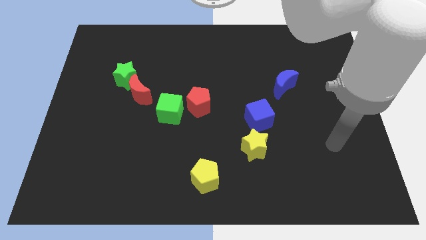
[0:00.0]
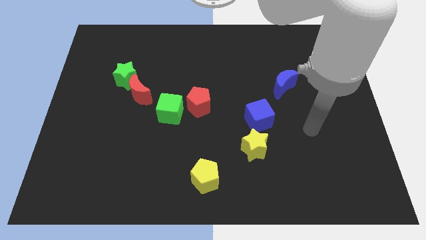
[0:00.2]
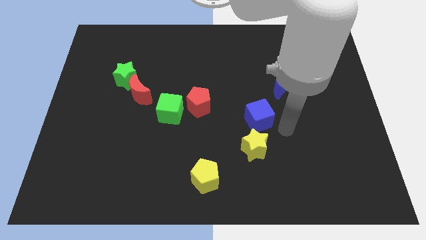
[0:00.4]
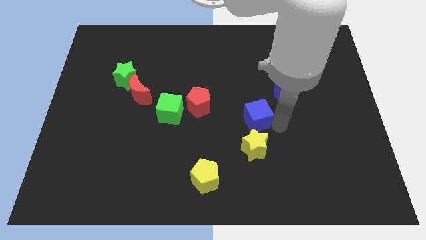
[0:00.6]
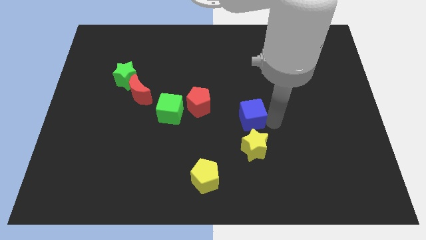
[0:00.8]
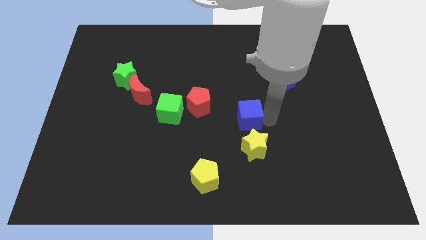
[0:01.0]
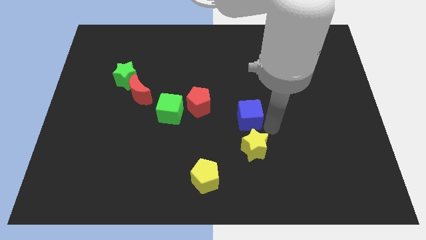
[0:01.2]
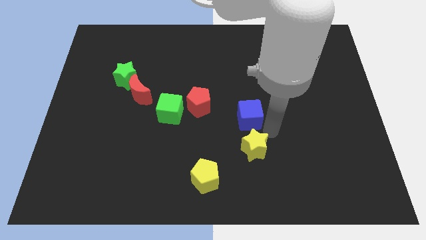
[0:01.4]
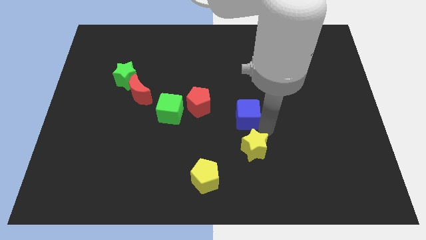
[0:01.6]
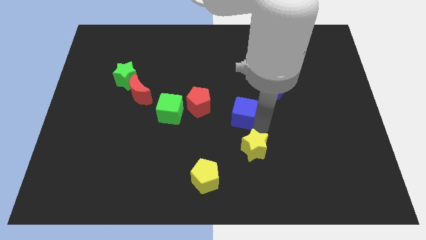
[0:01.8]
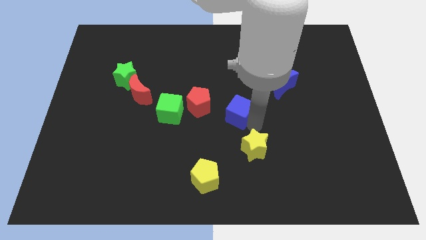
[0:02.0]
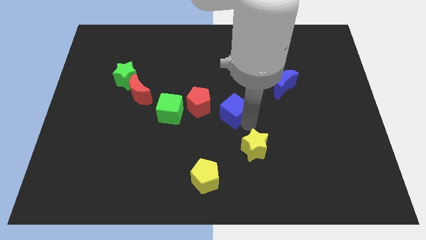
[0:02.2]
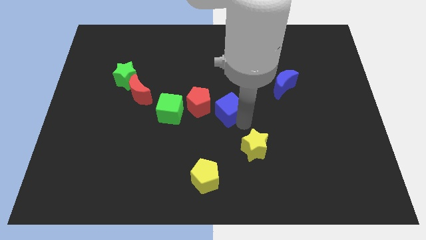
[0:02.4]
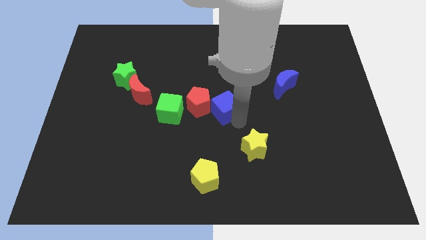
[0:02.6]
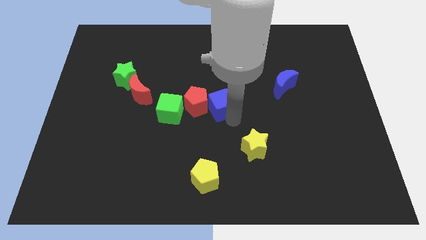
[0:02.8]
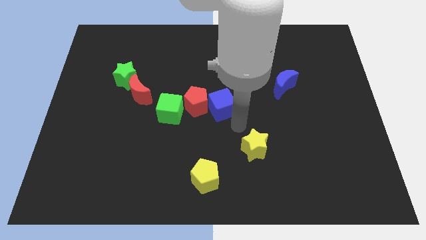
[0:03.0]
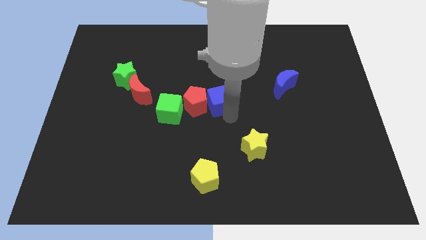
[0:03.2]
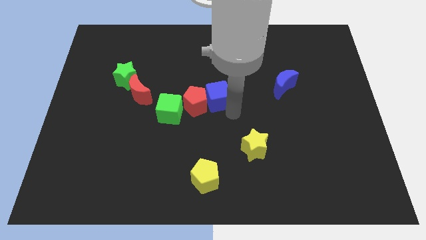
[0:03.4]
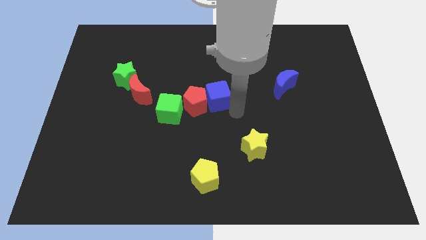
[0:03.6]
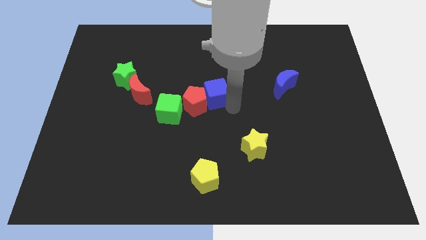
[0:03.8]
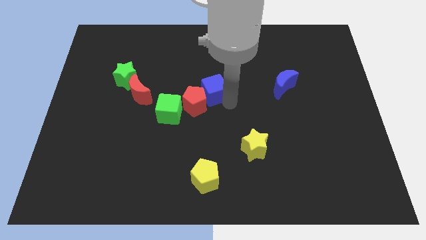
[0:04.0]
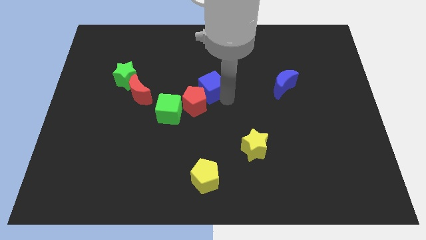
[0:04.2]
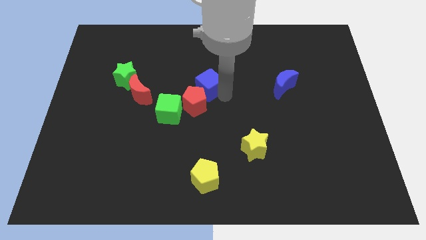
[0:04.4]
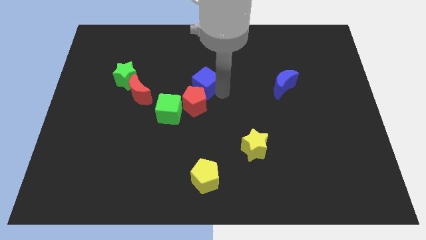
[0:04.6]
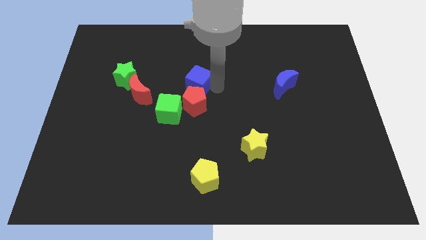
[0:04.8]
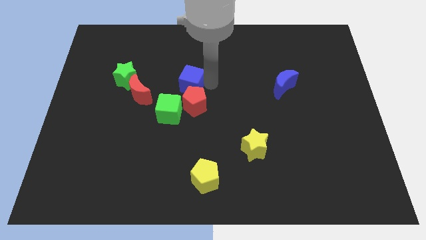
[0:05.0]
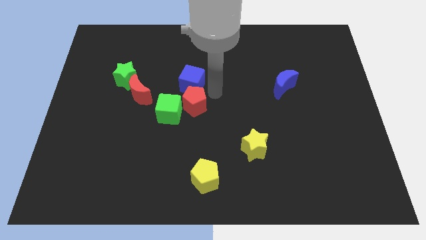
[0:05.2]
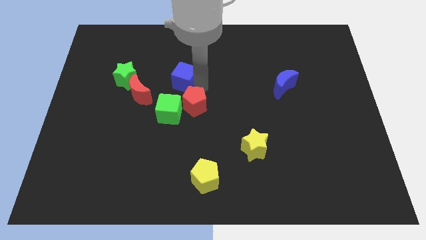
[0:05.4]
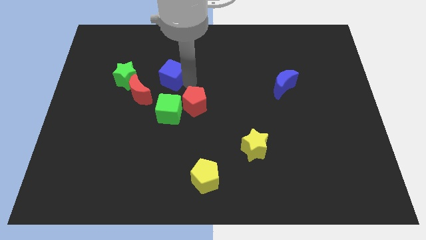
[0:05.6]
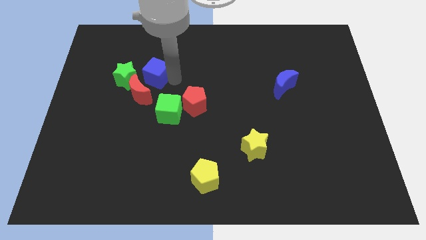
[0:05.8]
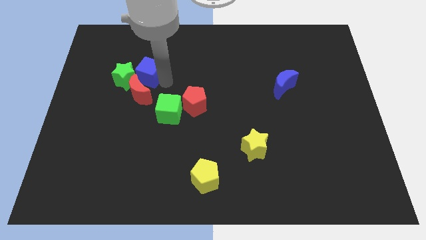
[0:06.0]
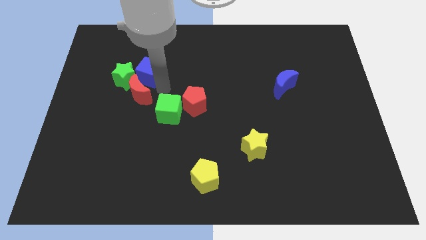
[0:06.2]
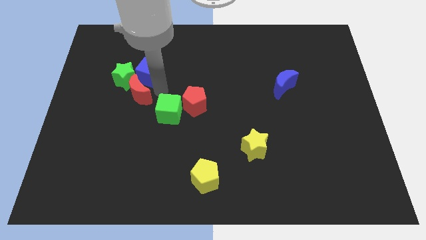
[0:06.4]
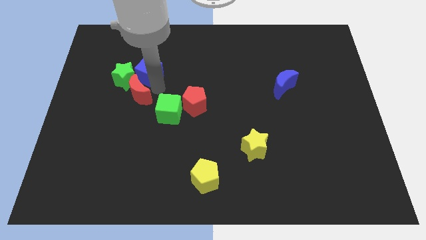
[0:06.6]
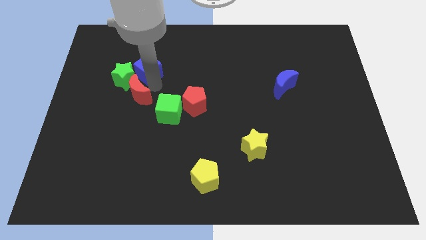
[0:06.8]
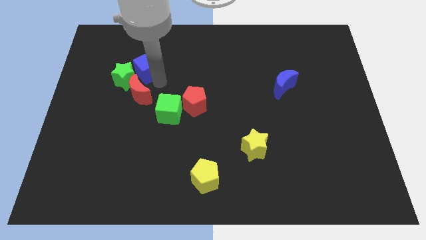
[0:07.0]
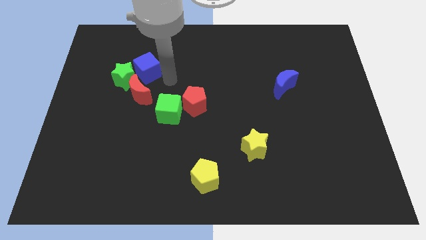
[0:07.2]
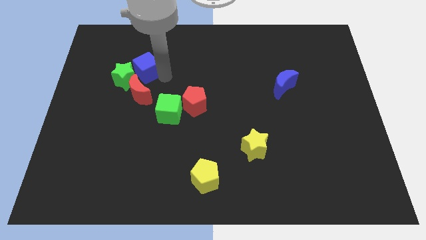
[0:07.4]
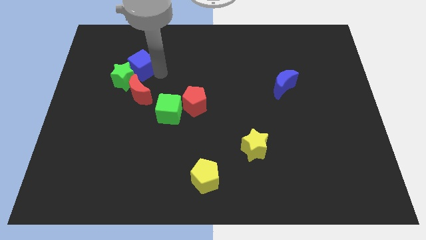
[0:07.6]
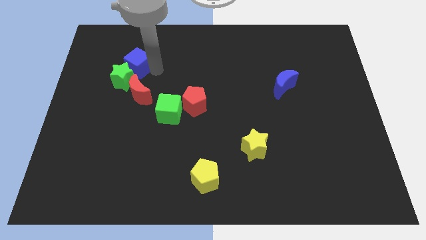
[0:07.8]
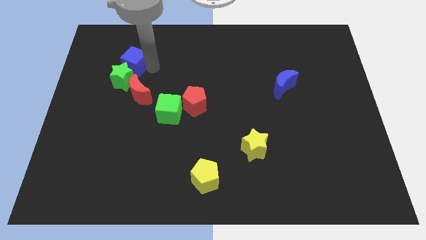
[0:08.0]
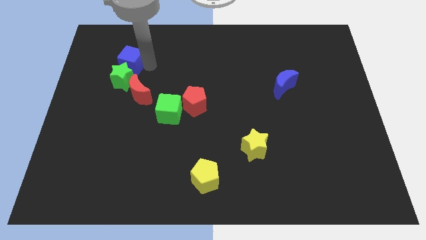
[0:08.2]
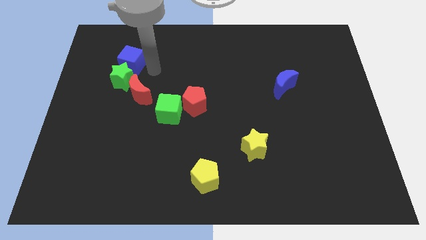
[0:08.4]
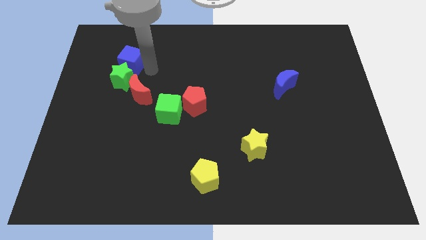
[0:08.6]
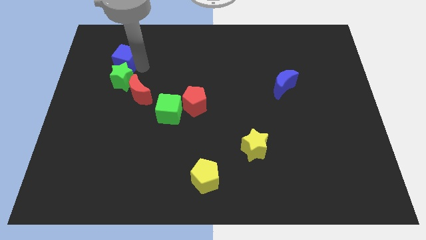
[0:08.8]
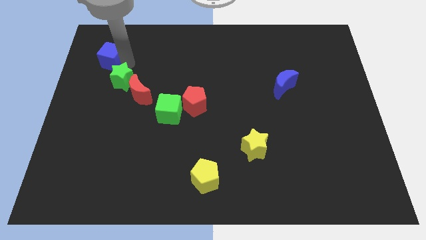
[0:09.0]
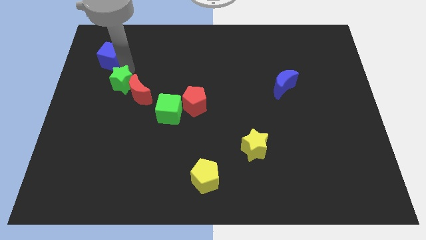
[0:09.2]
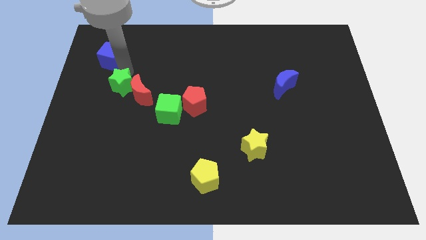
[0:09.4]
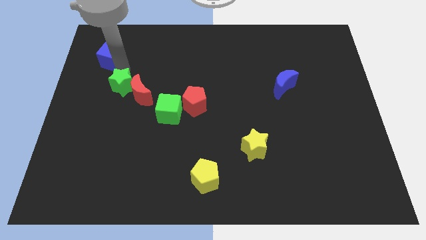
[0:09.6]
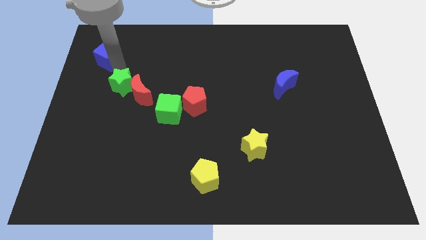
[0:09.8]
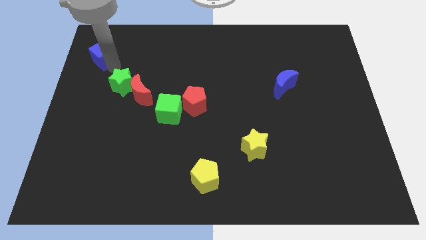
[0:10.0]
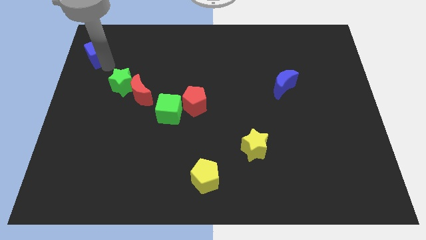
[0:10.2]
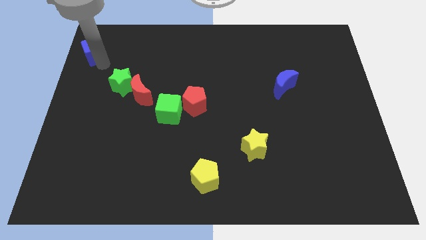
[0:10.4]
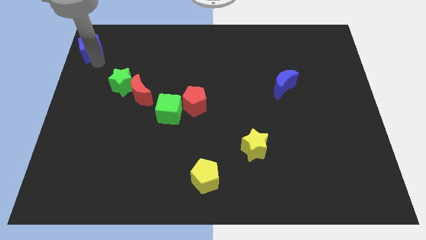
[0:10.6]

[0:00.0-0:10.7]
move the blue cube to the top left corner

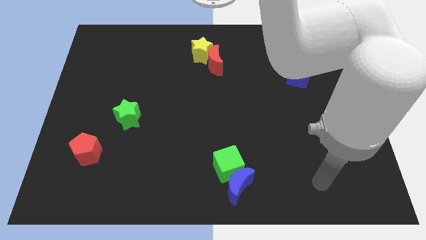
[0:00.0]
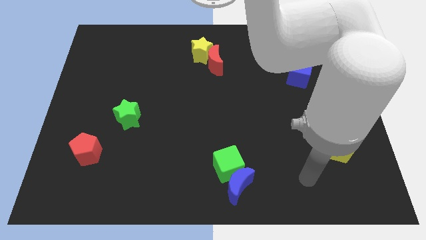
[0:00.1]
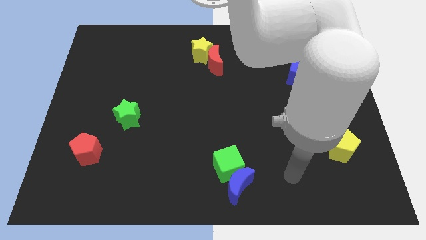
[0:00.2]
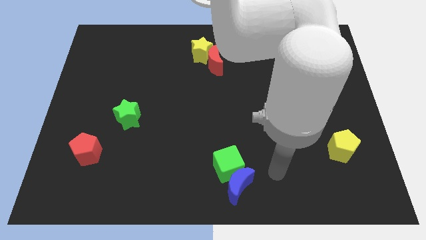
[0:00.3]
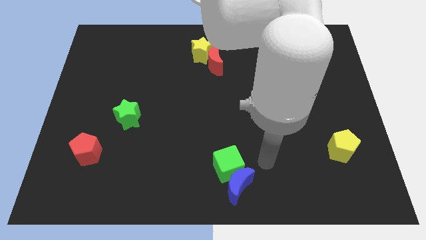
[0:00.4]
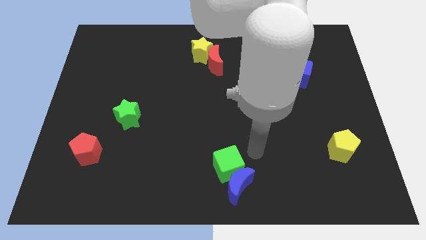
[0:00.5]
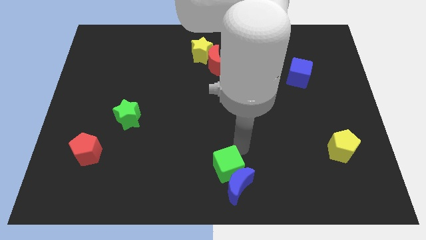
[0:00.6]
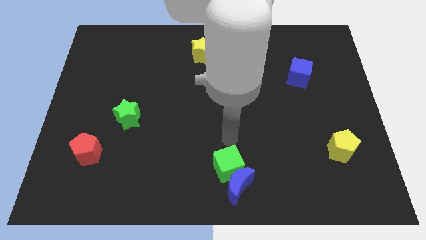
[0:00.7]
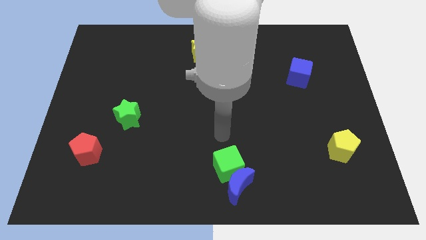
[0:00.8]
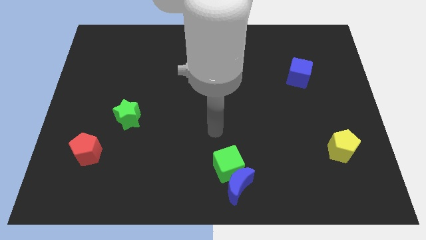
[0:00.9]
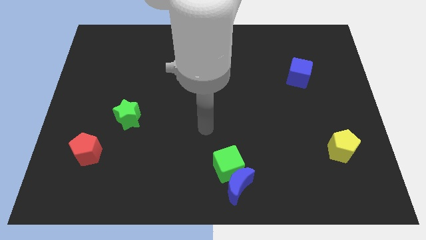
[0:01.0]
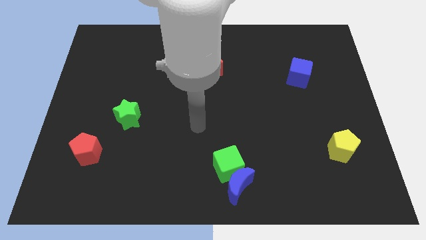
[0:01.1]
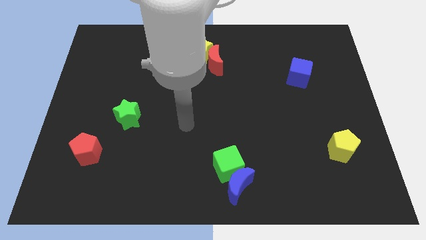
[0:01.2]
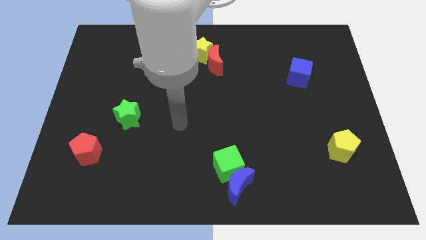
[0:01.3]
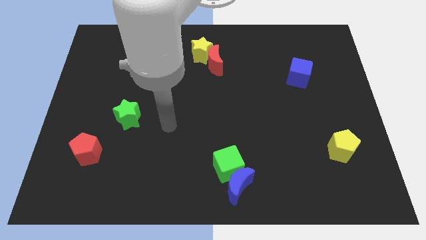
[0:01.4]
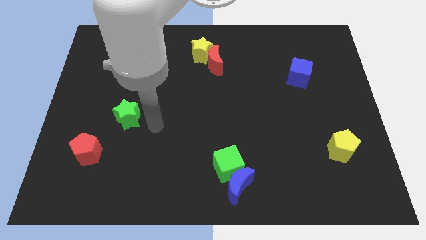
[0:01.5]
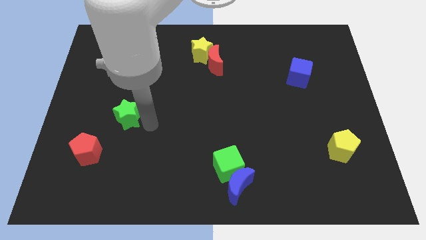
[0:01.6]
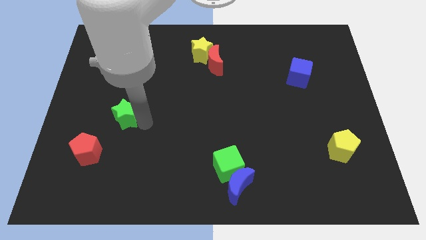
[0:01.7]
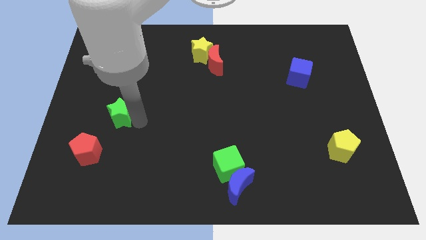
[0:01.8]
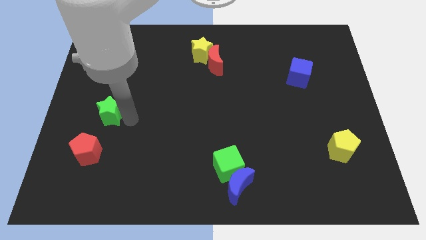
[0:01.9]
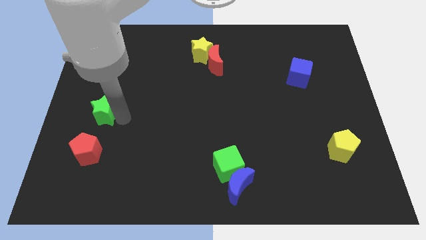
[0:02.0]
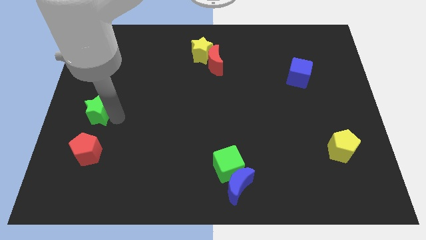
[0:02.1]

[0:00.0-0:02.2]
slide the green star to the center left
